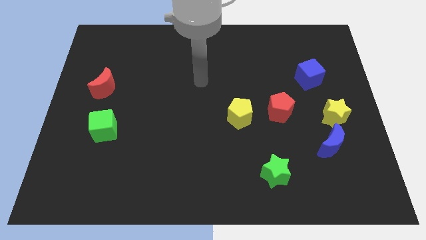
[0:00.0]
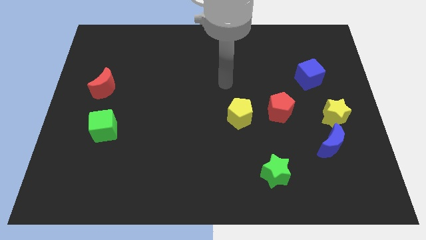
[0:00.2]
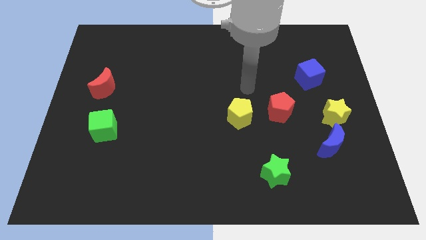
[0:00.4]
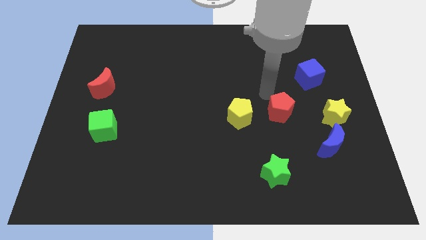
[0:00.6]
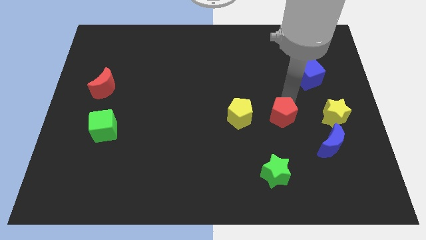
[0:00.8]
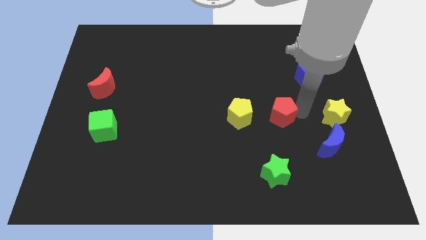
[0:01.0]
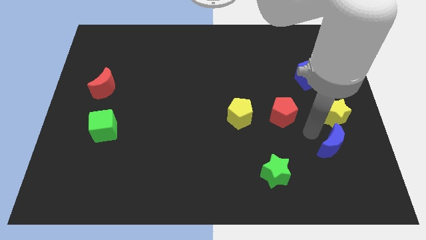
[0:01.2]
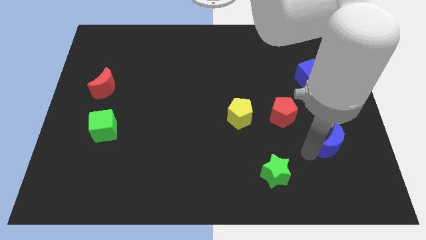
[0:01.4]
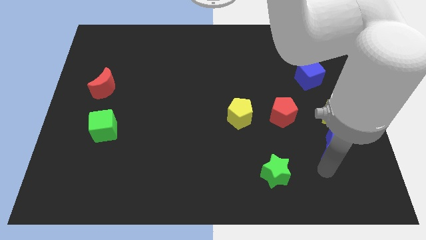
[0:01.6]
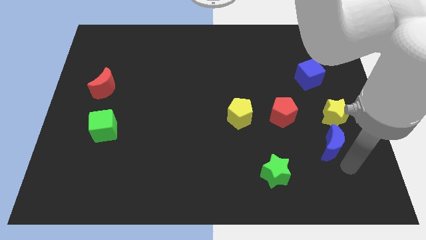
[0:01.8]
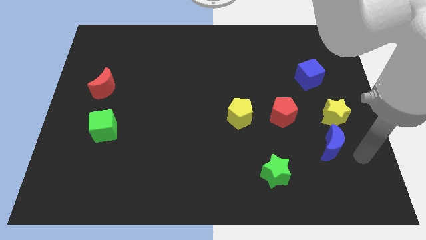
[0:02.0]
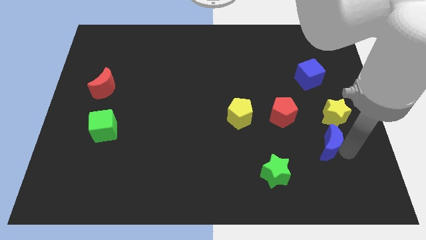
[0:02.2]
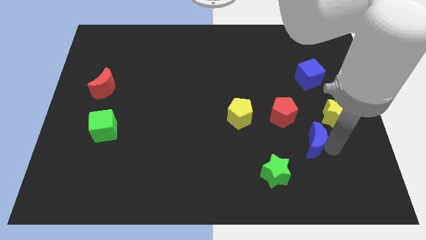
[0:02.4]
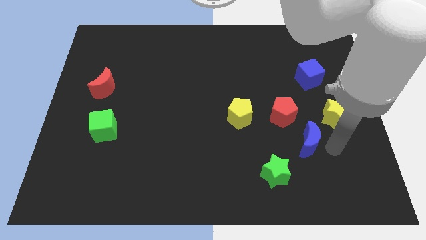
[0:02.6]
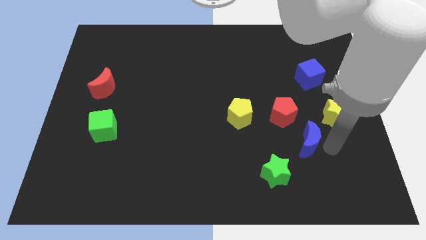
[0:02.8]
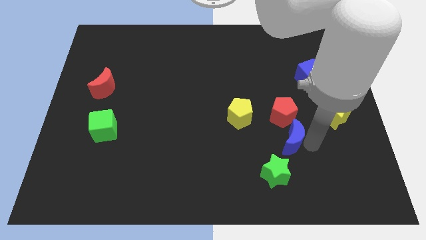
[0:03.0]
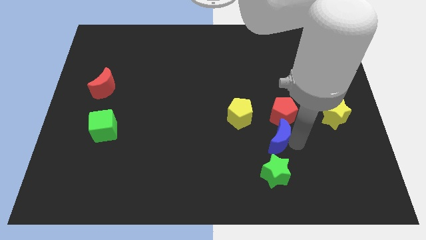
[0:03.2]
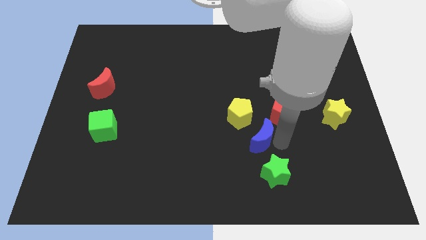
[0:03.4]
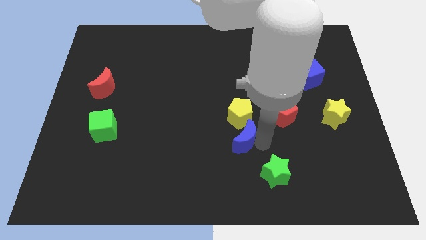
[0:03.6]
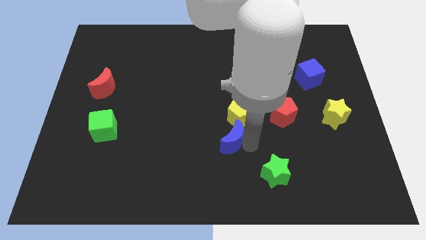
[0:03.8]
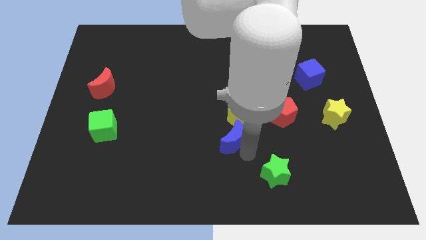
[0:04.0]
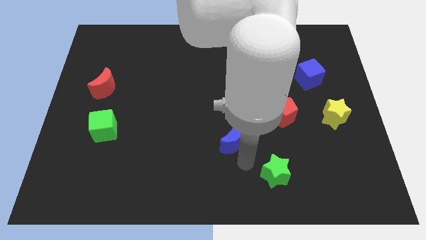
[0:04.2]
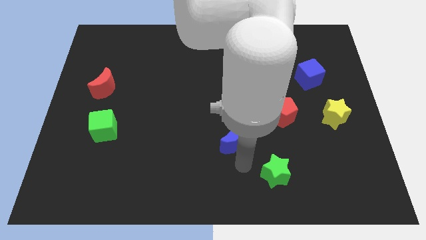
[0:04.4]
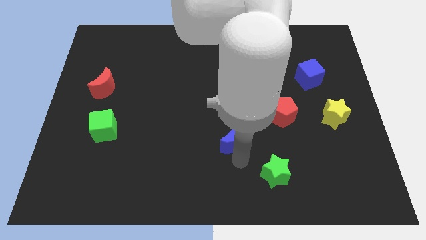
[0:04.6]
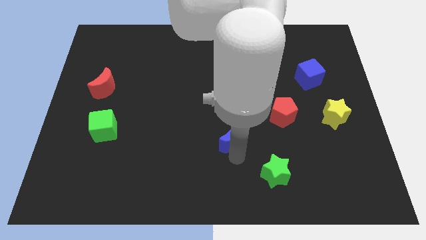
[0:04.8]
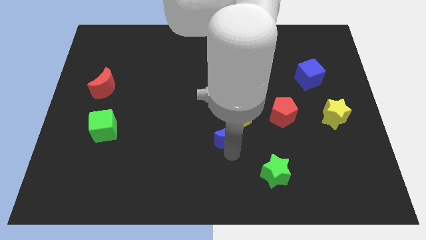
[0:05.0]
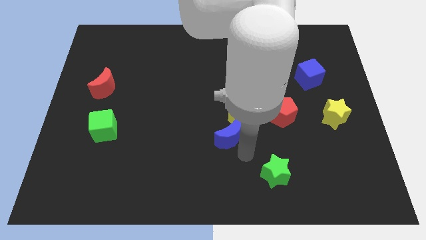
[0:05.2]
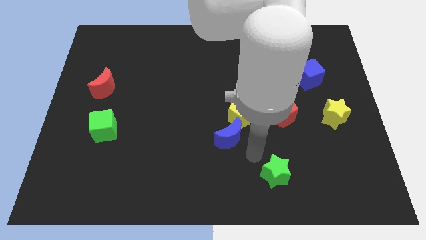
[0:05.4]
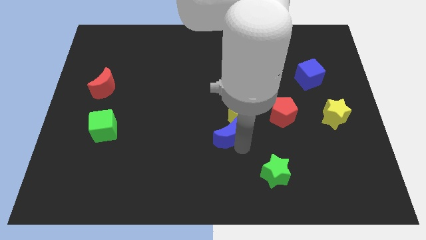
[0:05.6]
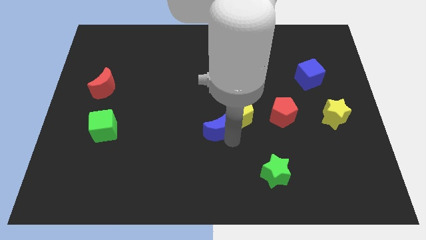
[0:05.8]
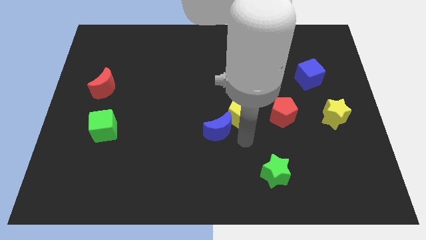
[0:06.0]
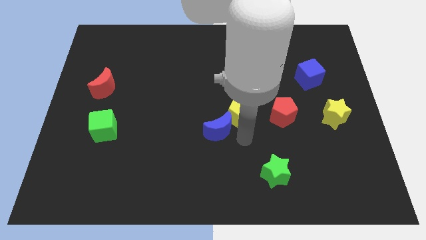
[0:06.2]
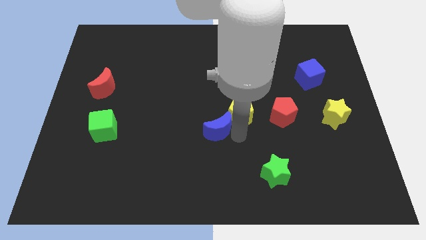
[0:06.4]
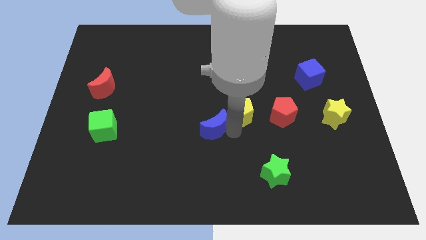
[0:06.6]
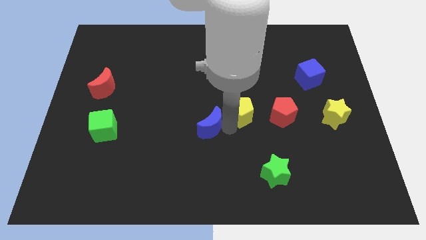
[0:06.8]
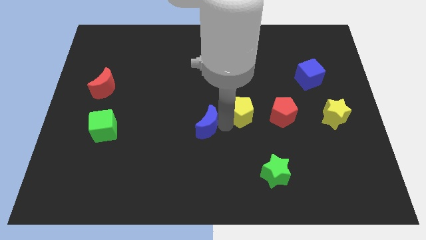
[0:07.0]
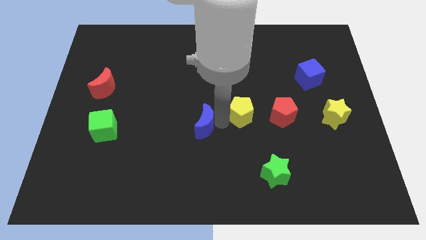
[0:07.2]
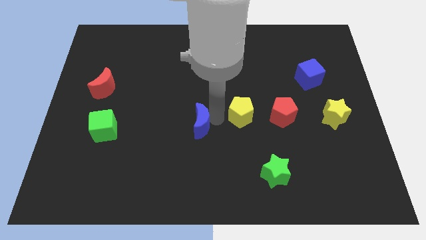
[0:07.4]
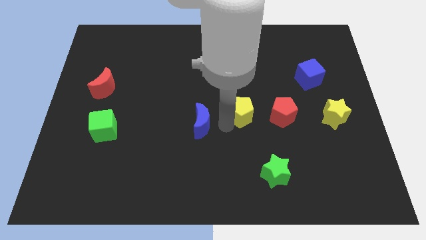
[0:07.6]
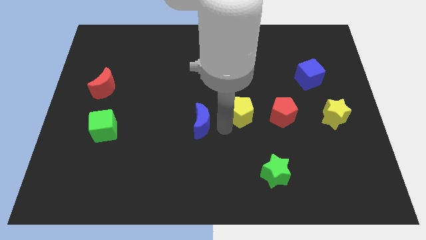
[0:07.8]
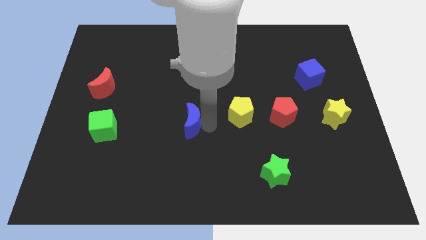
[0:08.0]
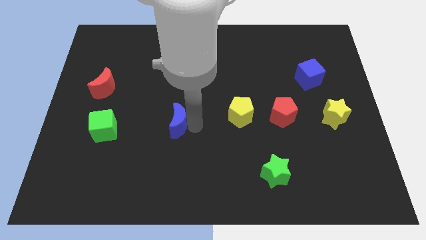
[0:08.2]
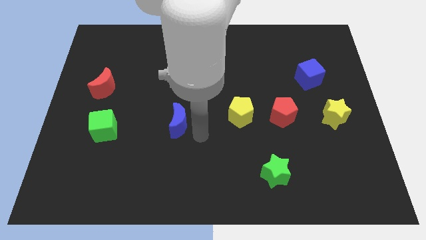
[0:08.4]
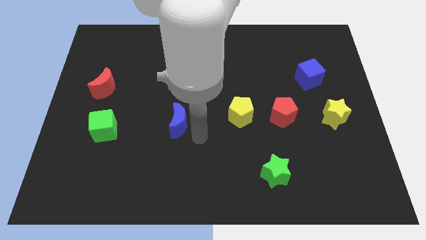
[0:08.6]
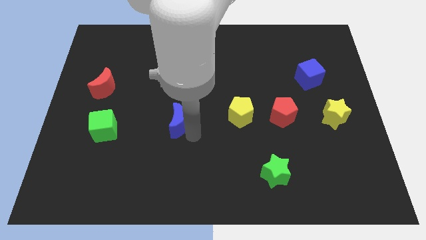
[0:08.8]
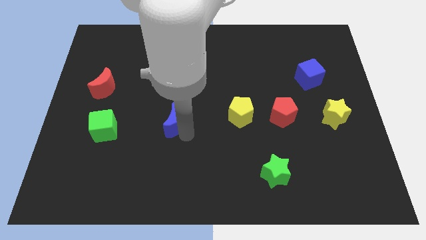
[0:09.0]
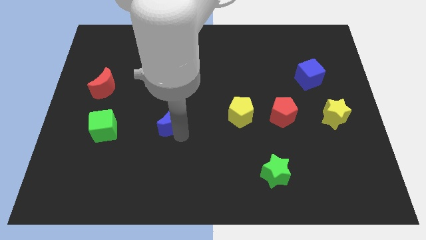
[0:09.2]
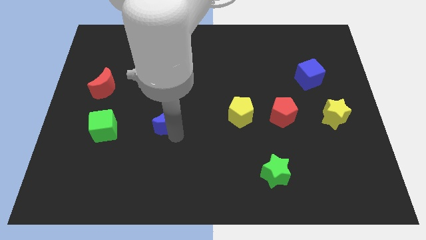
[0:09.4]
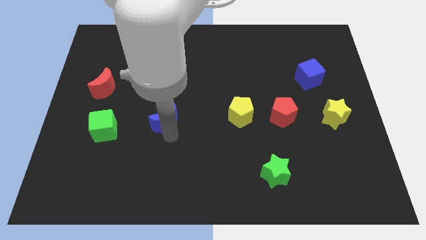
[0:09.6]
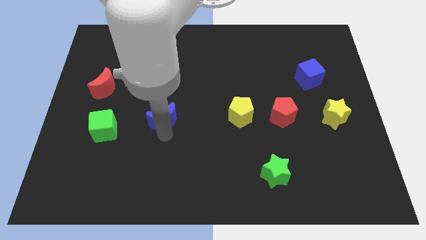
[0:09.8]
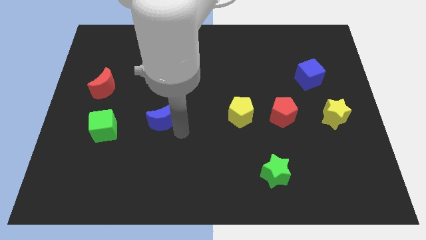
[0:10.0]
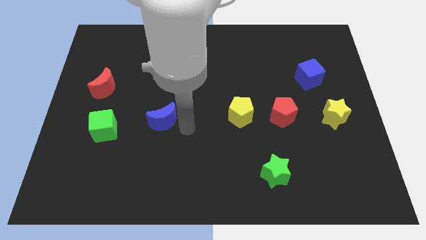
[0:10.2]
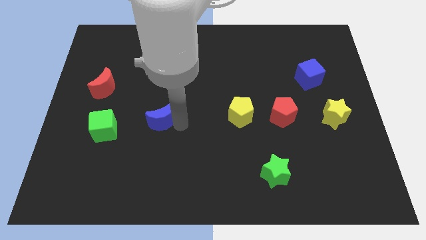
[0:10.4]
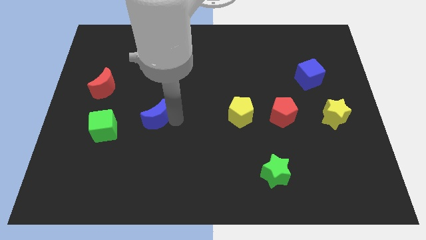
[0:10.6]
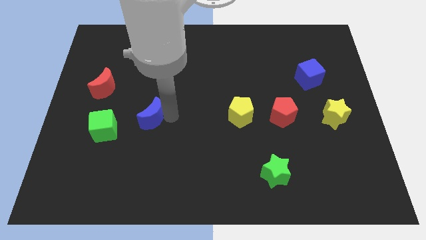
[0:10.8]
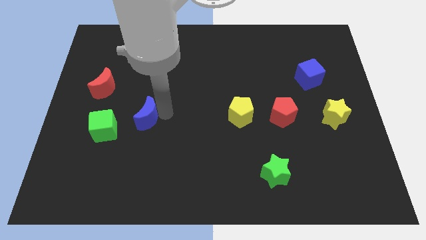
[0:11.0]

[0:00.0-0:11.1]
put the blue moon to the top right side of the green cube

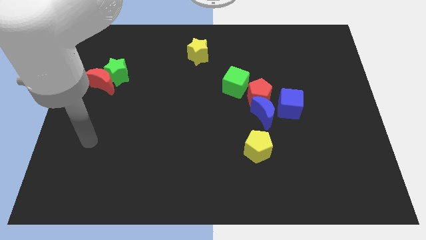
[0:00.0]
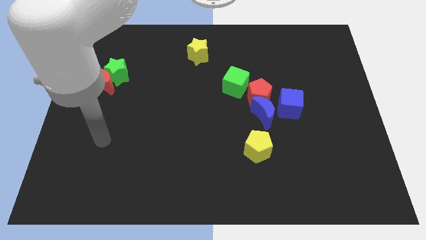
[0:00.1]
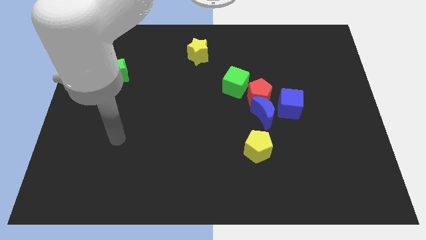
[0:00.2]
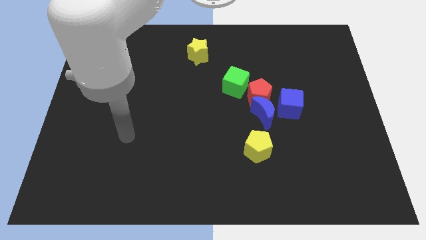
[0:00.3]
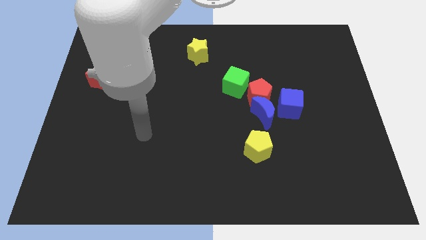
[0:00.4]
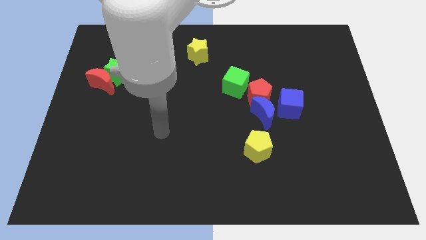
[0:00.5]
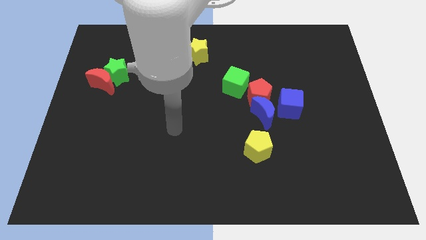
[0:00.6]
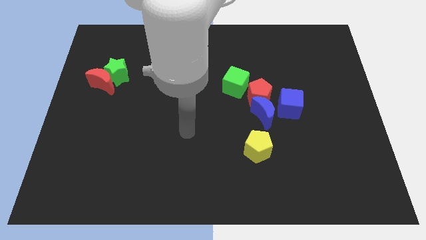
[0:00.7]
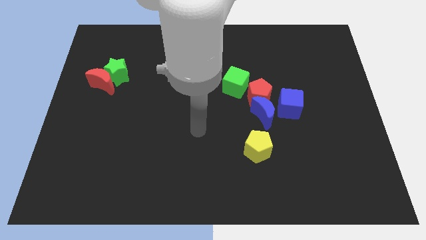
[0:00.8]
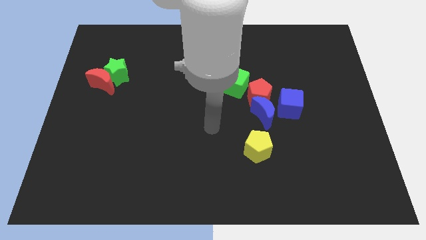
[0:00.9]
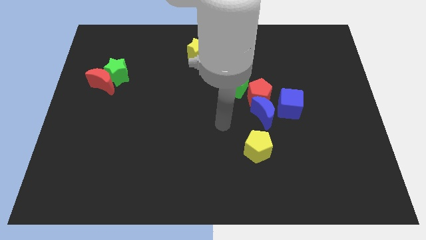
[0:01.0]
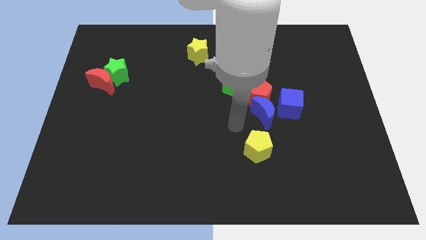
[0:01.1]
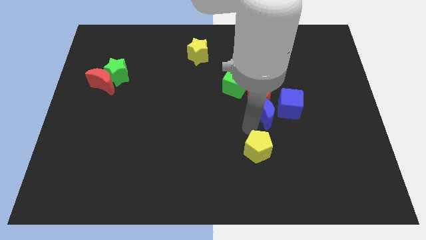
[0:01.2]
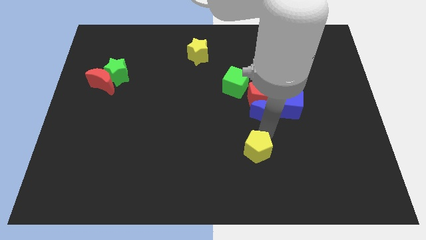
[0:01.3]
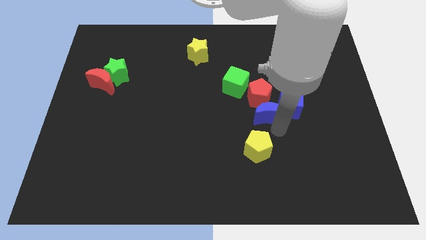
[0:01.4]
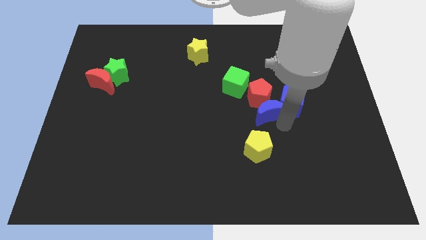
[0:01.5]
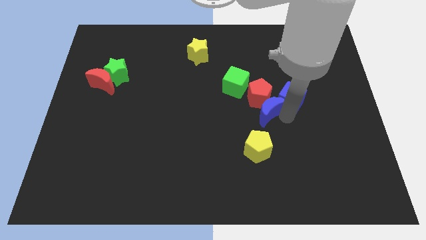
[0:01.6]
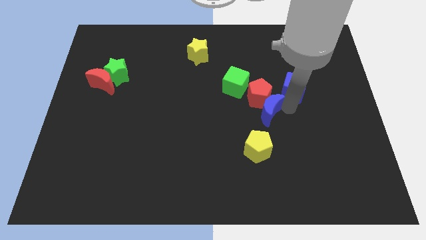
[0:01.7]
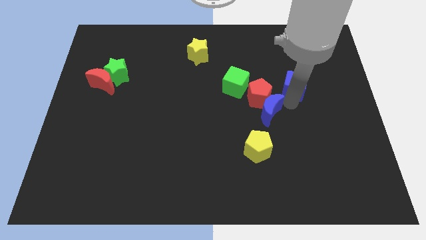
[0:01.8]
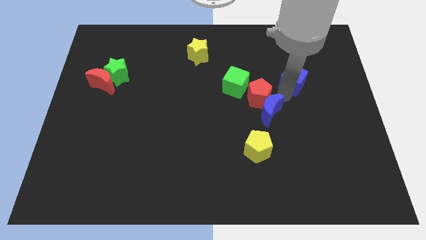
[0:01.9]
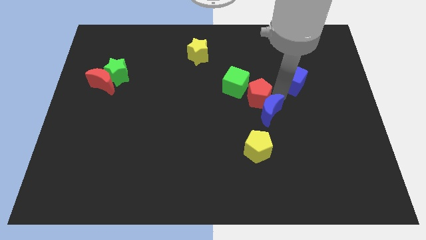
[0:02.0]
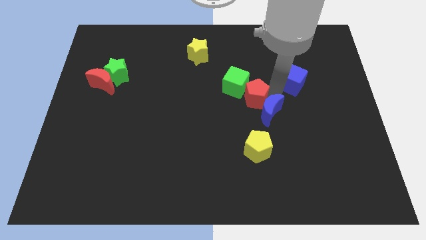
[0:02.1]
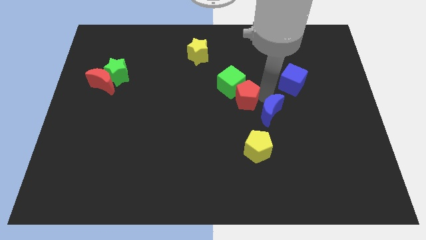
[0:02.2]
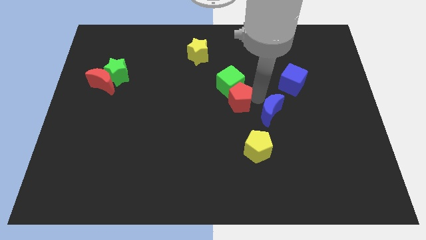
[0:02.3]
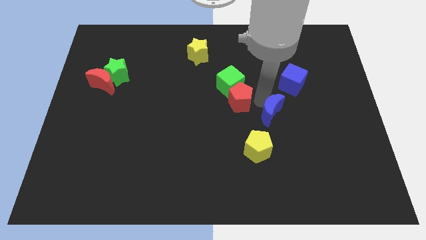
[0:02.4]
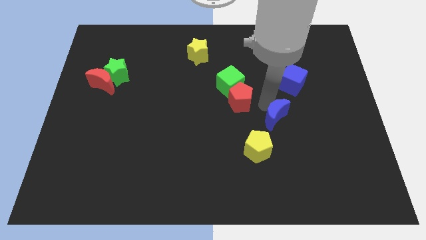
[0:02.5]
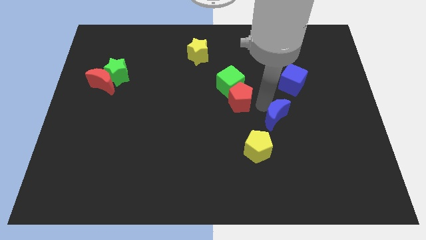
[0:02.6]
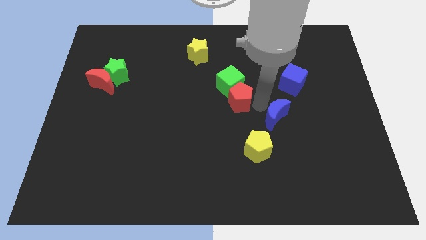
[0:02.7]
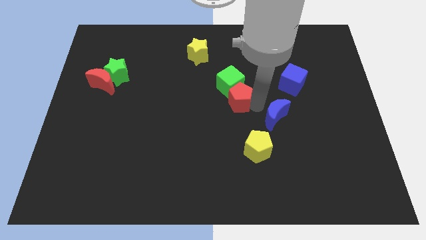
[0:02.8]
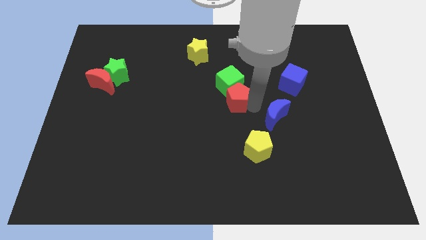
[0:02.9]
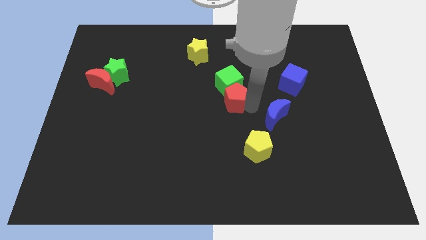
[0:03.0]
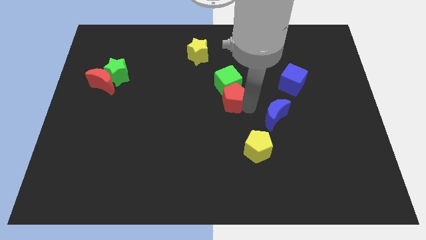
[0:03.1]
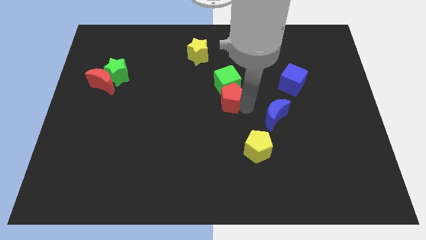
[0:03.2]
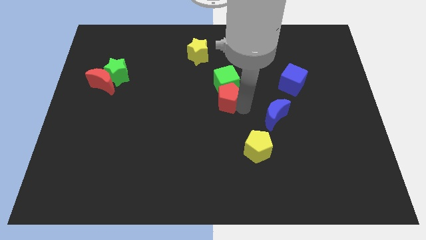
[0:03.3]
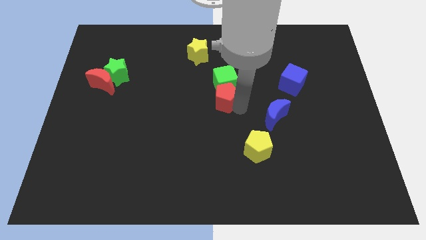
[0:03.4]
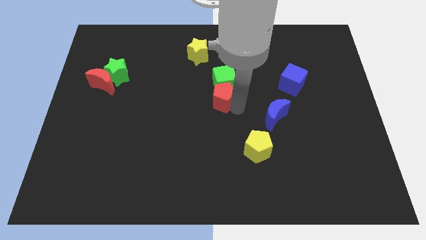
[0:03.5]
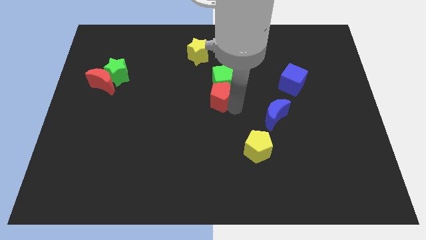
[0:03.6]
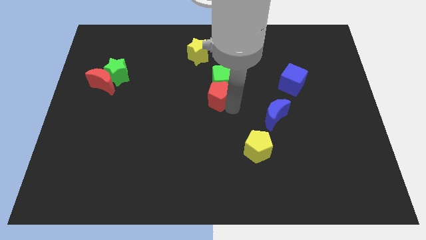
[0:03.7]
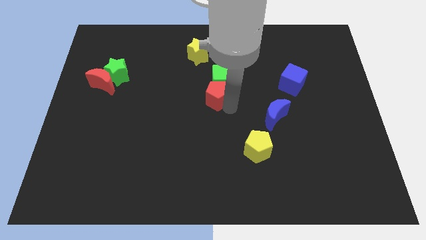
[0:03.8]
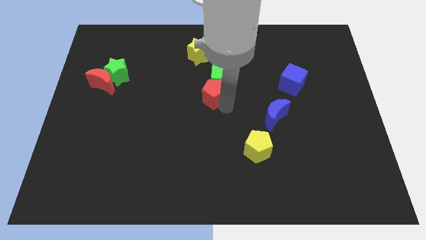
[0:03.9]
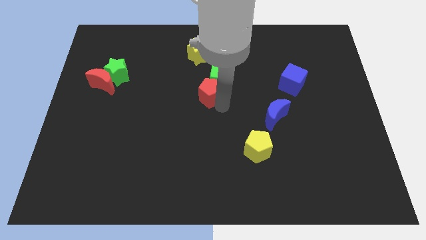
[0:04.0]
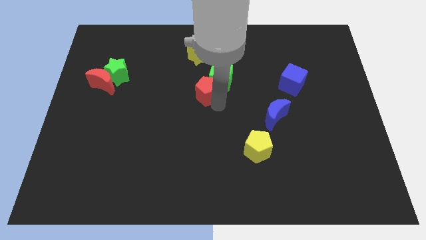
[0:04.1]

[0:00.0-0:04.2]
put the red pentagon just left of the green cube
